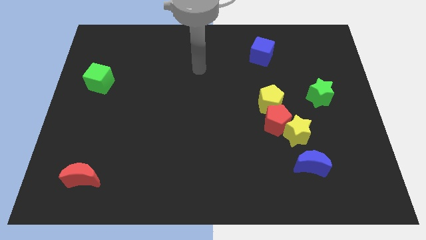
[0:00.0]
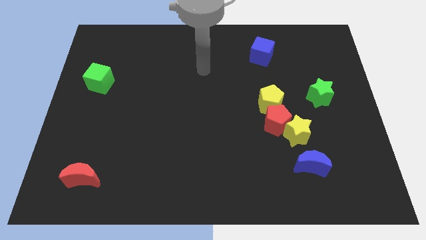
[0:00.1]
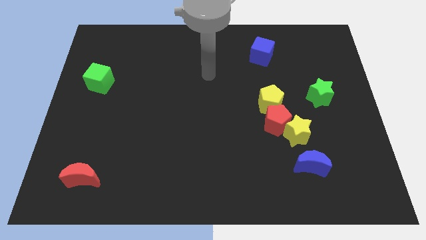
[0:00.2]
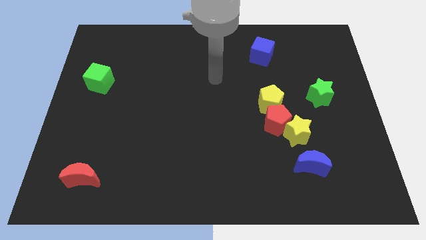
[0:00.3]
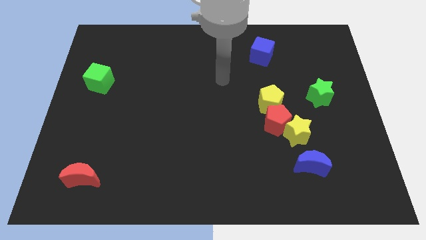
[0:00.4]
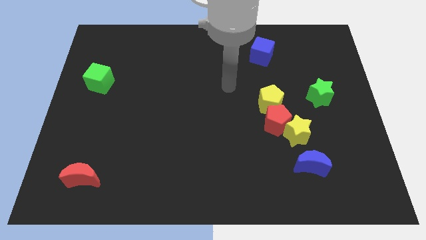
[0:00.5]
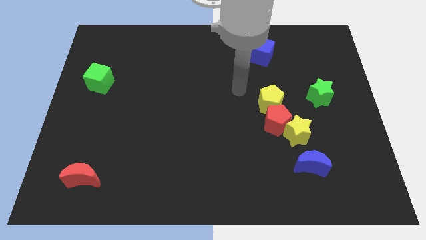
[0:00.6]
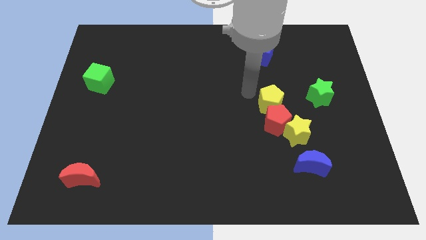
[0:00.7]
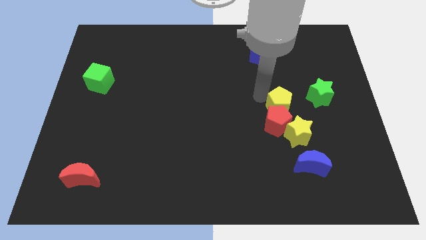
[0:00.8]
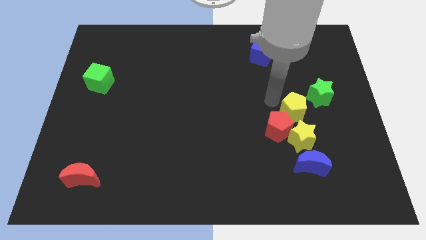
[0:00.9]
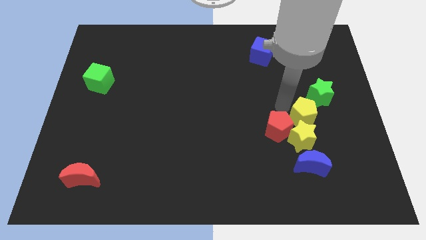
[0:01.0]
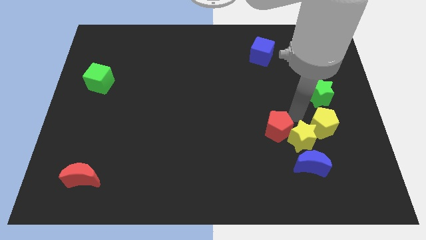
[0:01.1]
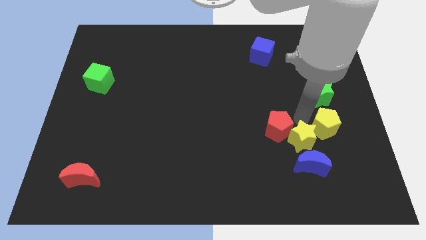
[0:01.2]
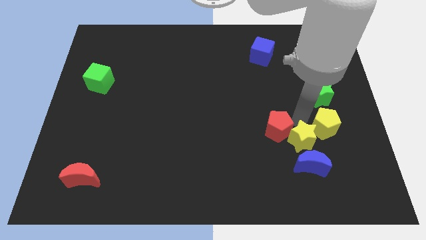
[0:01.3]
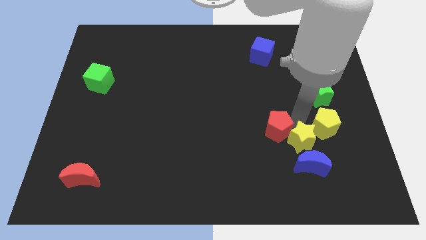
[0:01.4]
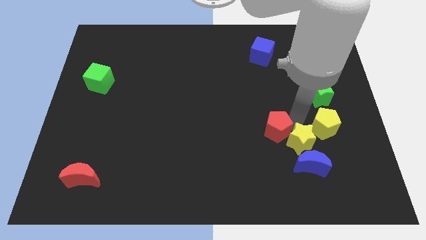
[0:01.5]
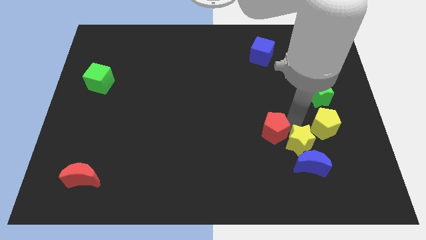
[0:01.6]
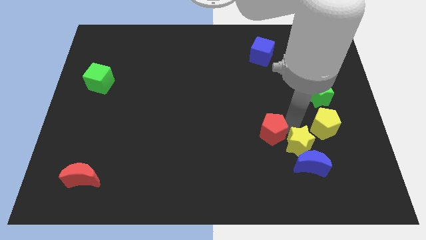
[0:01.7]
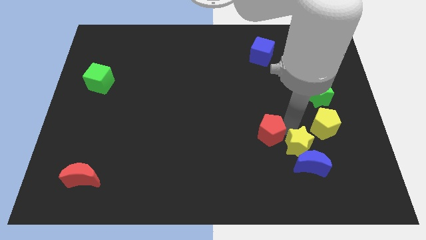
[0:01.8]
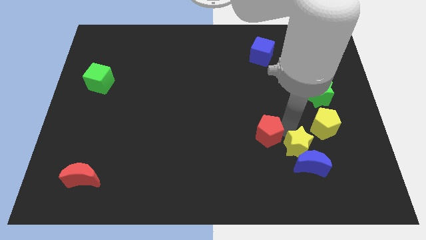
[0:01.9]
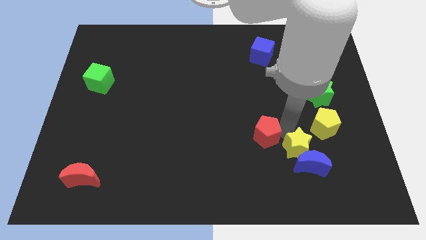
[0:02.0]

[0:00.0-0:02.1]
move the red pentagon away from the yellow star and yellow pentagon

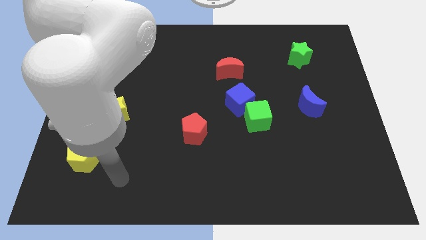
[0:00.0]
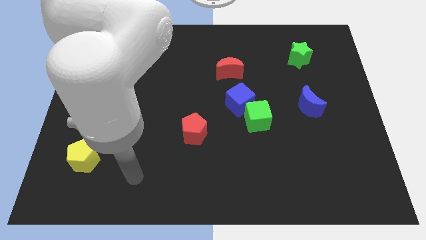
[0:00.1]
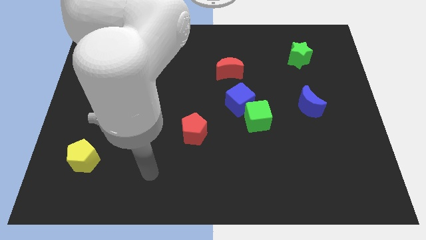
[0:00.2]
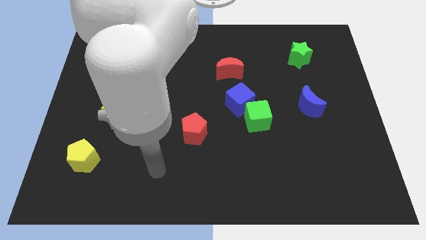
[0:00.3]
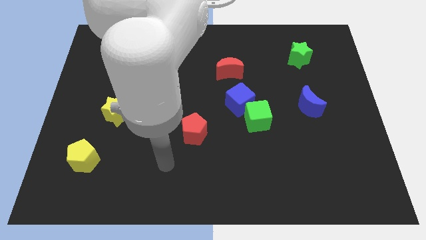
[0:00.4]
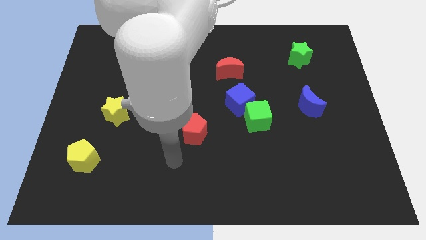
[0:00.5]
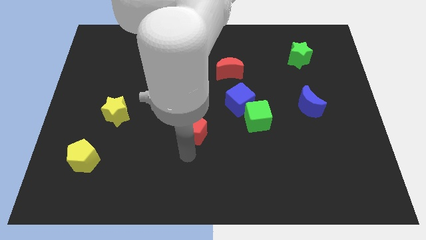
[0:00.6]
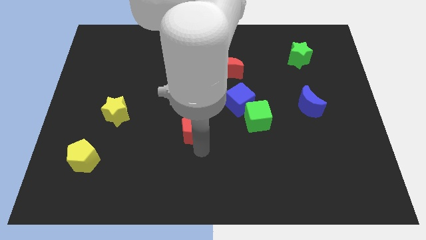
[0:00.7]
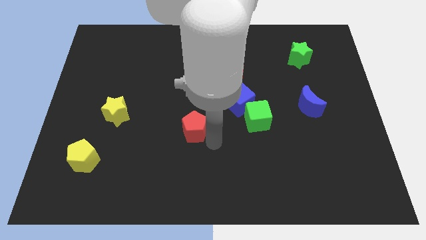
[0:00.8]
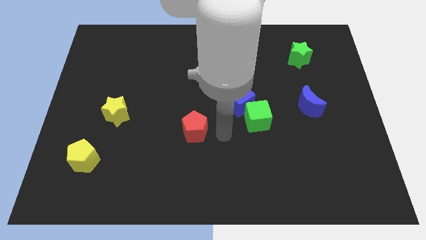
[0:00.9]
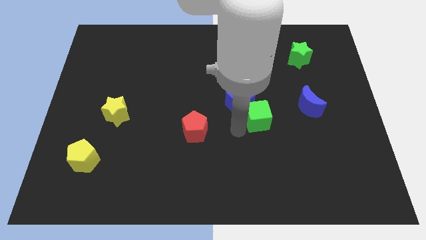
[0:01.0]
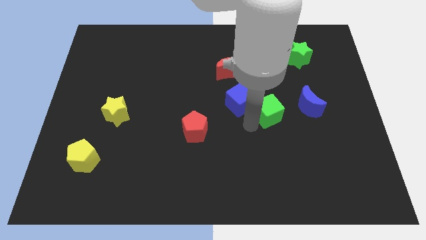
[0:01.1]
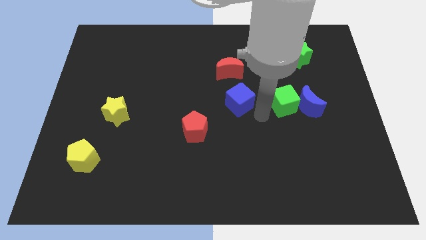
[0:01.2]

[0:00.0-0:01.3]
move the blue cube away from the green cube

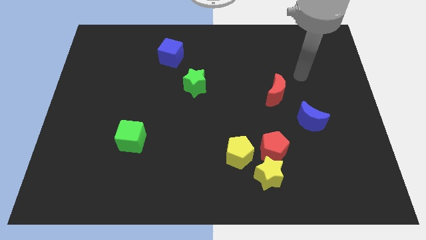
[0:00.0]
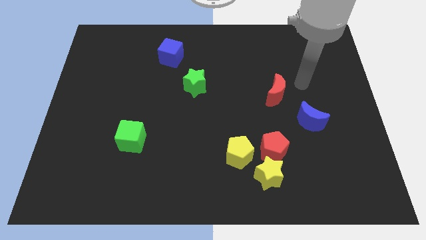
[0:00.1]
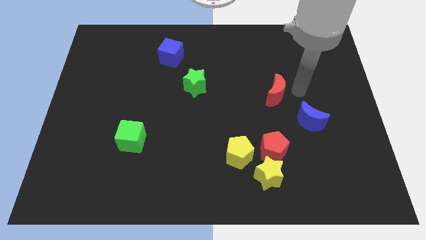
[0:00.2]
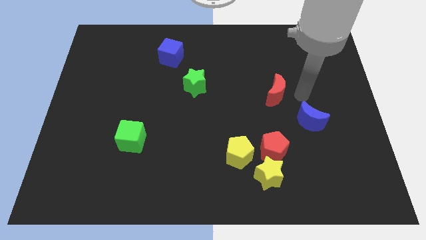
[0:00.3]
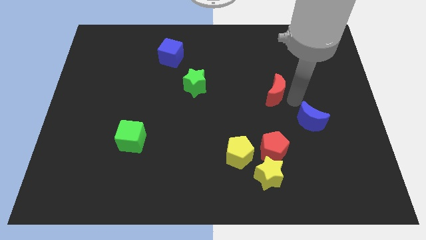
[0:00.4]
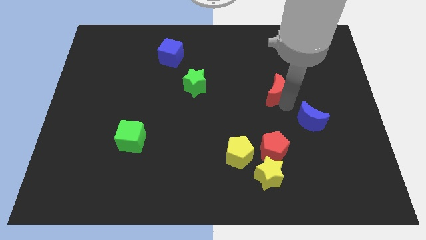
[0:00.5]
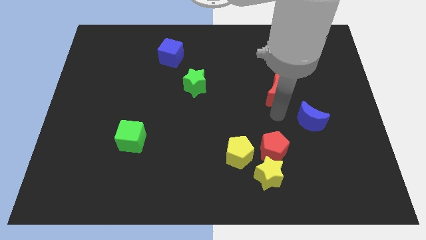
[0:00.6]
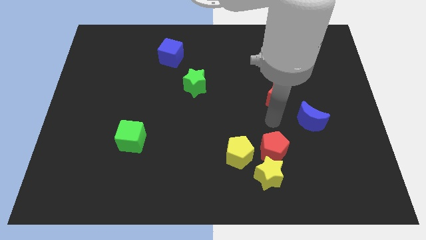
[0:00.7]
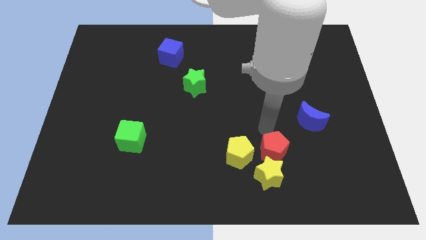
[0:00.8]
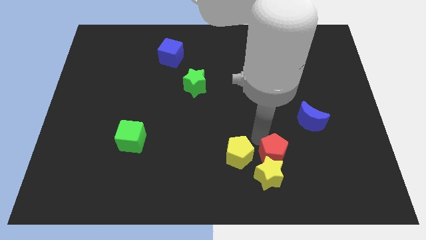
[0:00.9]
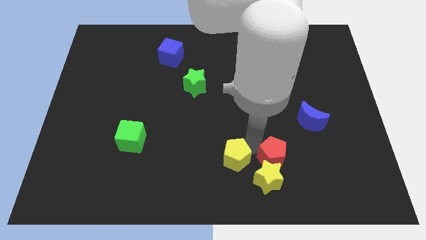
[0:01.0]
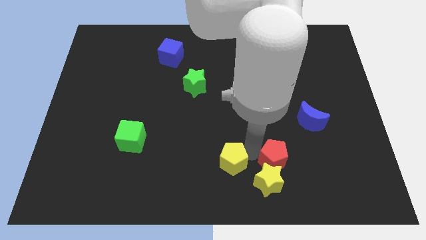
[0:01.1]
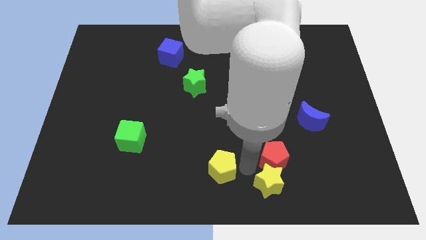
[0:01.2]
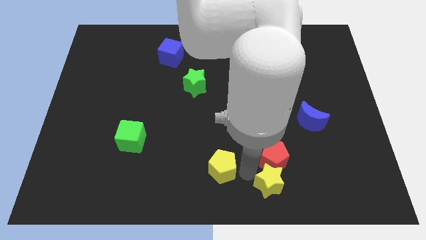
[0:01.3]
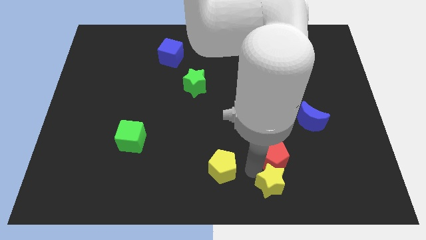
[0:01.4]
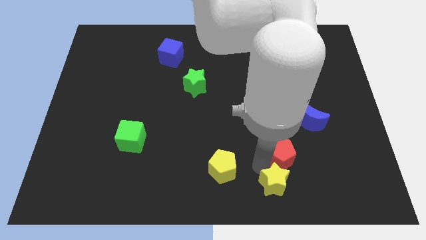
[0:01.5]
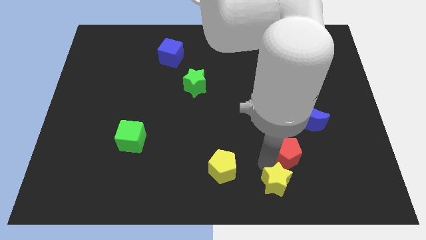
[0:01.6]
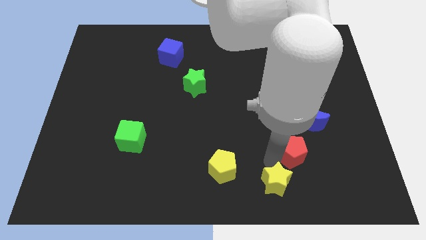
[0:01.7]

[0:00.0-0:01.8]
separate the red pentagon from the yellow star and yellow pentagon

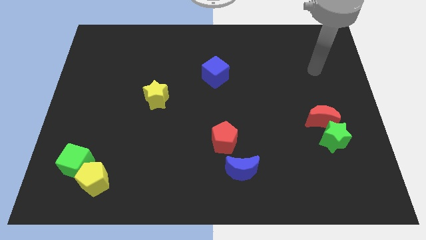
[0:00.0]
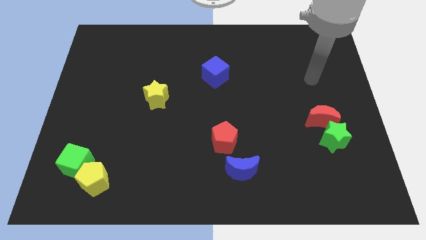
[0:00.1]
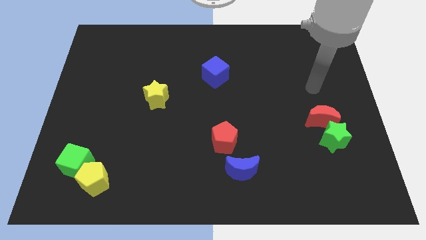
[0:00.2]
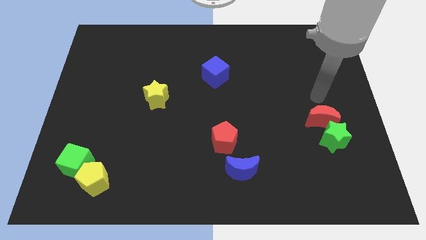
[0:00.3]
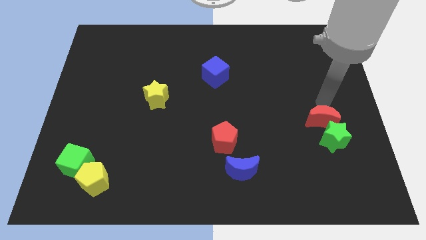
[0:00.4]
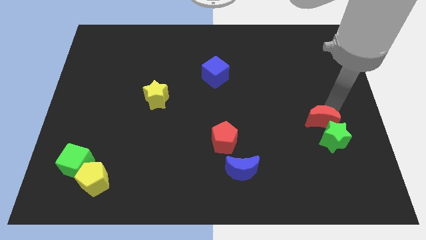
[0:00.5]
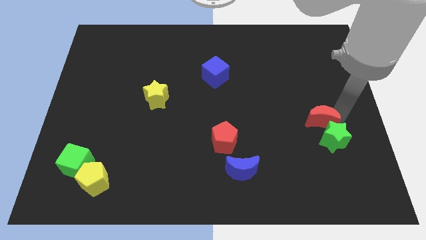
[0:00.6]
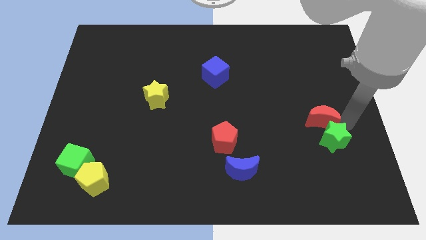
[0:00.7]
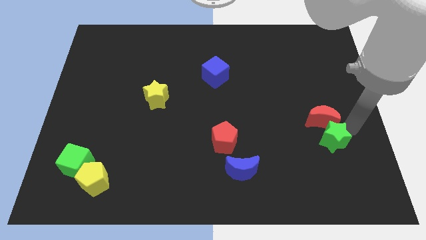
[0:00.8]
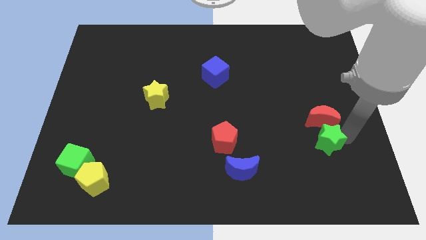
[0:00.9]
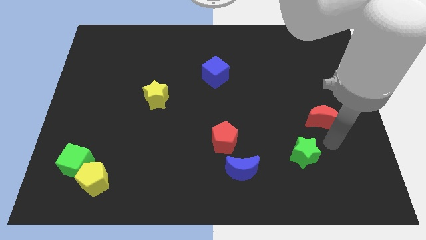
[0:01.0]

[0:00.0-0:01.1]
move the red moon away from the green star

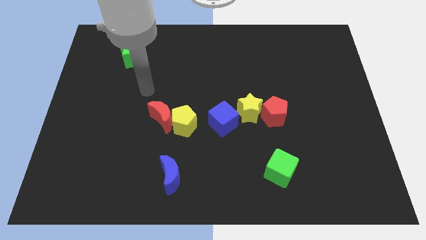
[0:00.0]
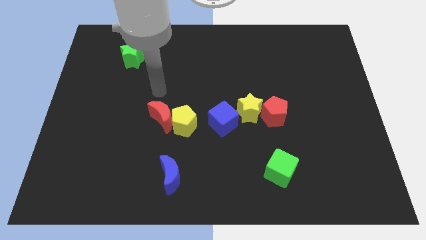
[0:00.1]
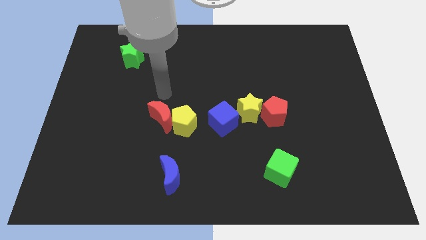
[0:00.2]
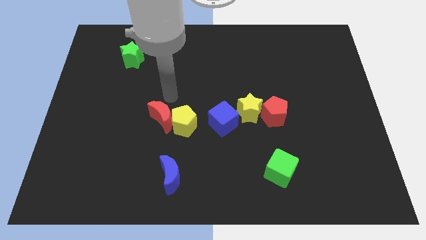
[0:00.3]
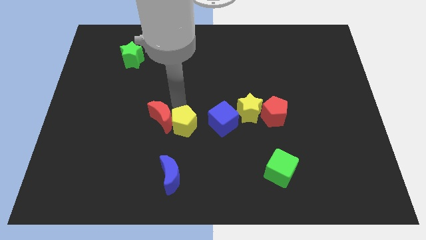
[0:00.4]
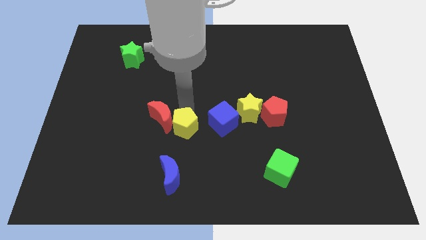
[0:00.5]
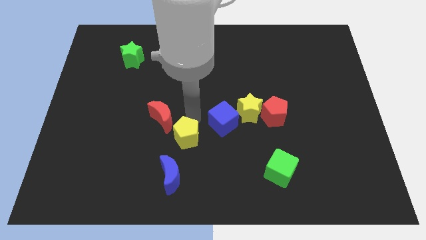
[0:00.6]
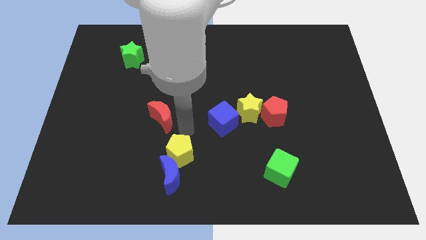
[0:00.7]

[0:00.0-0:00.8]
pull the red moon apart from the yellow pentagon

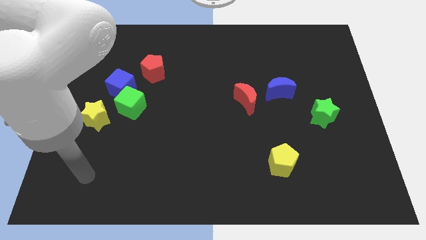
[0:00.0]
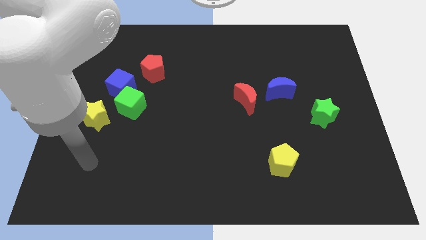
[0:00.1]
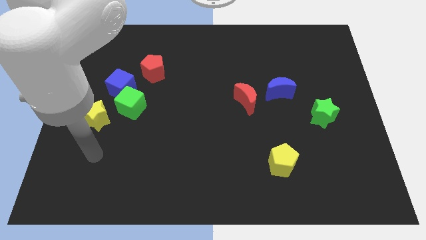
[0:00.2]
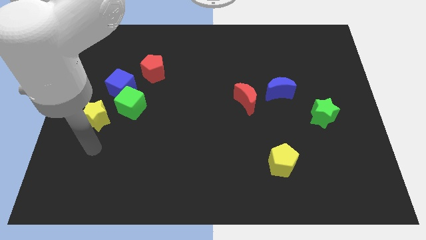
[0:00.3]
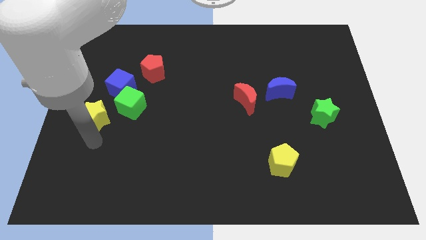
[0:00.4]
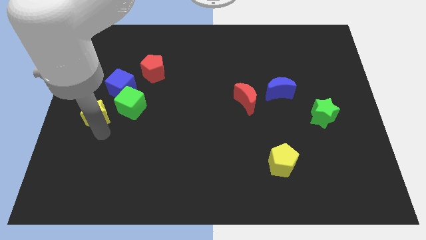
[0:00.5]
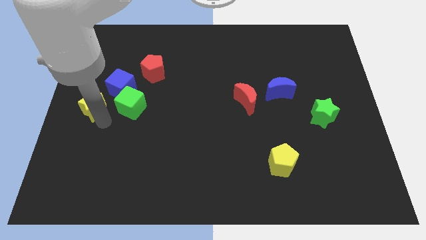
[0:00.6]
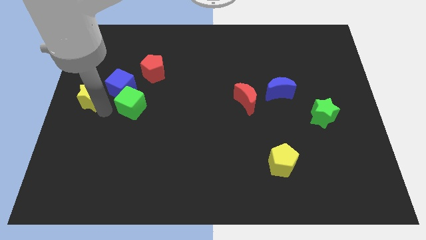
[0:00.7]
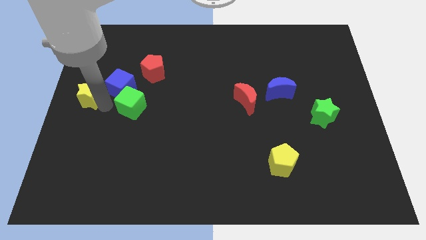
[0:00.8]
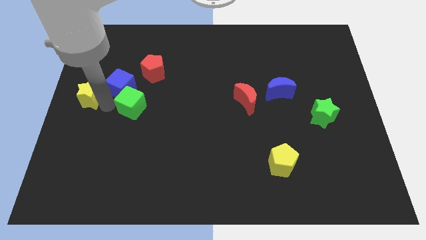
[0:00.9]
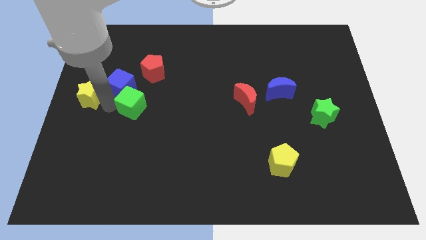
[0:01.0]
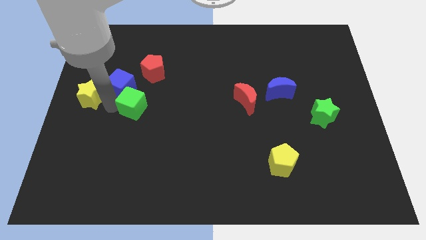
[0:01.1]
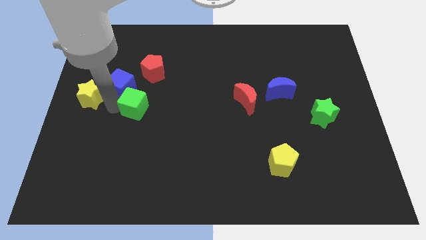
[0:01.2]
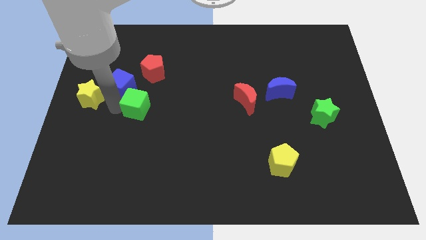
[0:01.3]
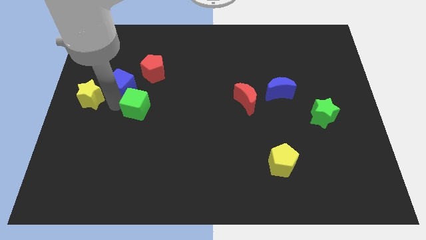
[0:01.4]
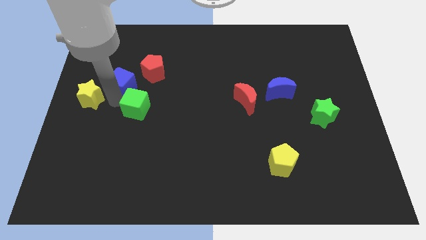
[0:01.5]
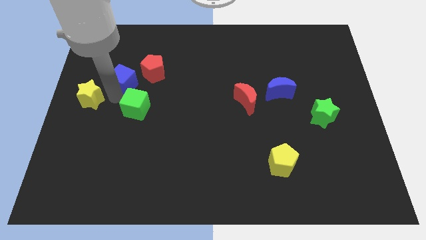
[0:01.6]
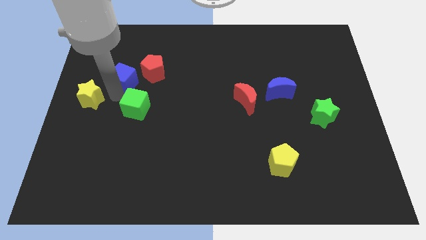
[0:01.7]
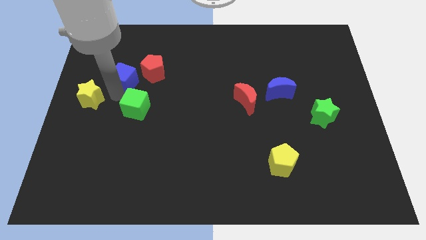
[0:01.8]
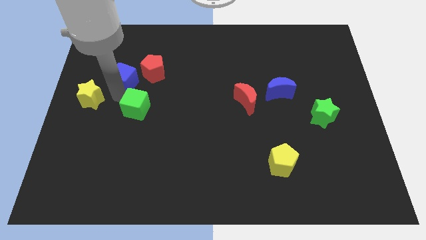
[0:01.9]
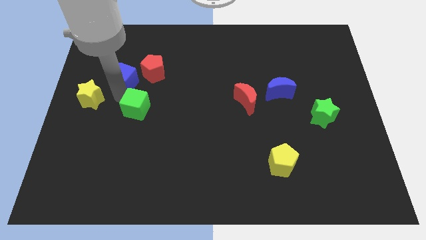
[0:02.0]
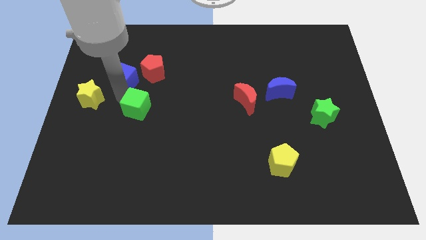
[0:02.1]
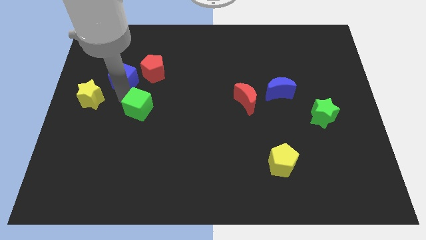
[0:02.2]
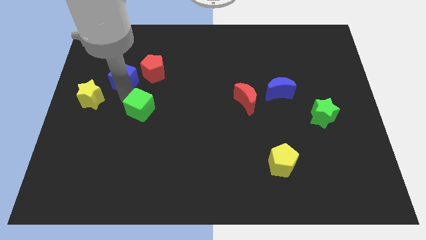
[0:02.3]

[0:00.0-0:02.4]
move the green cube away from the blue cube and yellow star

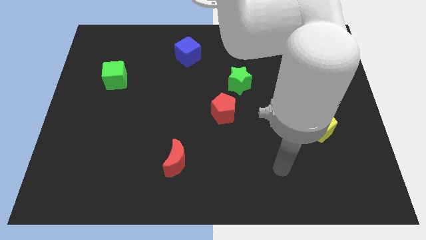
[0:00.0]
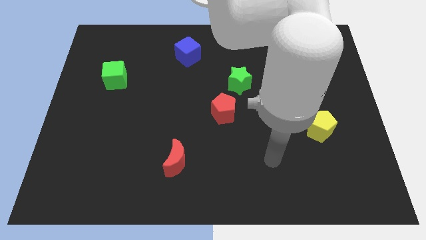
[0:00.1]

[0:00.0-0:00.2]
move the red pentagon away from the green star
